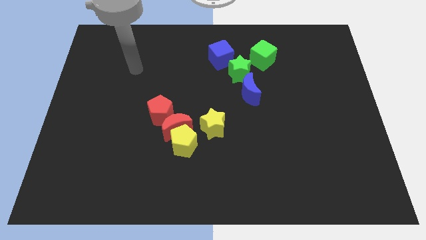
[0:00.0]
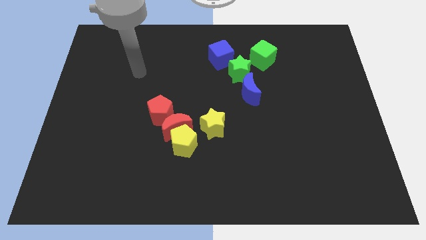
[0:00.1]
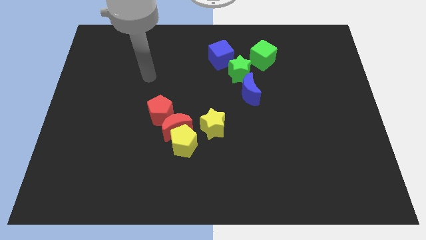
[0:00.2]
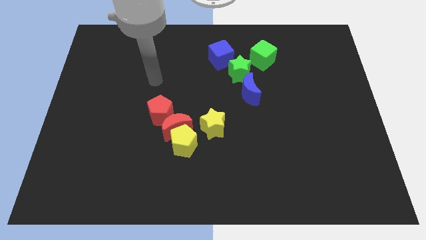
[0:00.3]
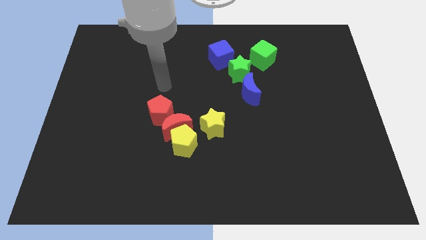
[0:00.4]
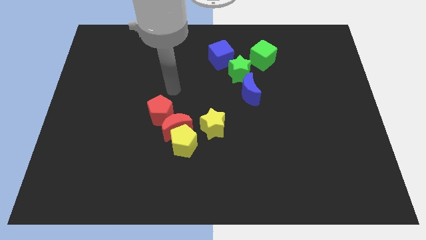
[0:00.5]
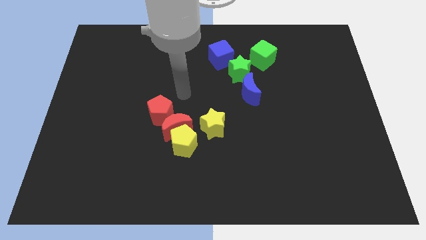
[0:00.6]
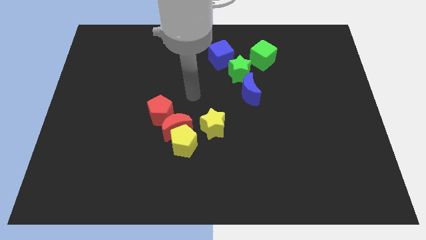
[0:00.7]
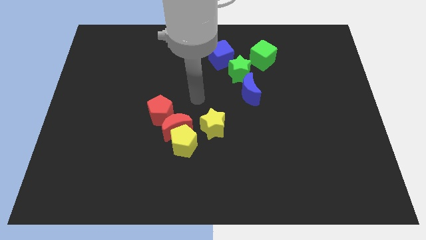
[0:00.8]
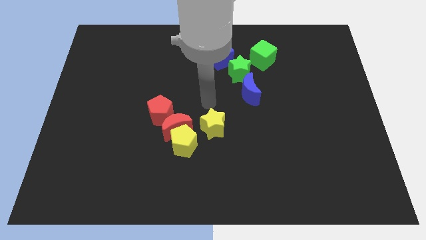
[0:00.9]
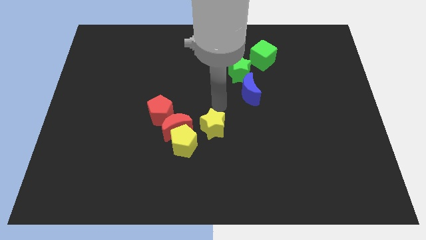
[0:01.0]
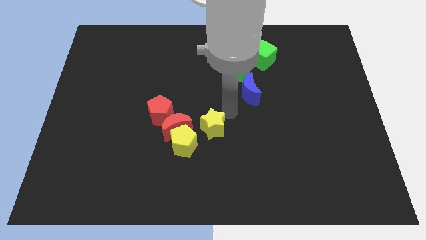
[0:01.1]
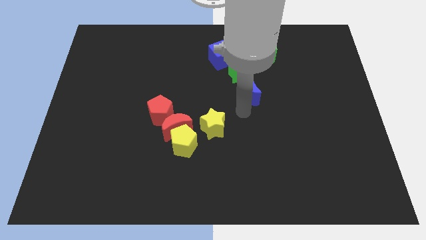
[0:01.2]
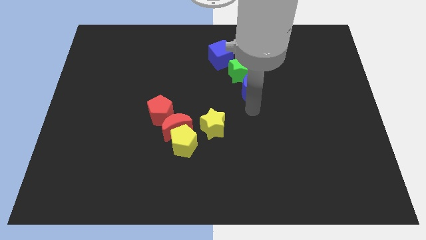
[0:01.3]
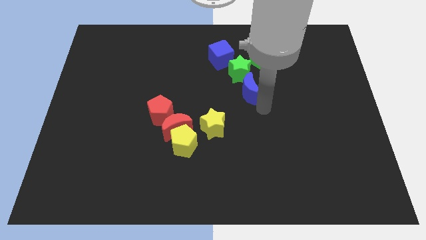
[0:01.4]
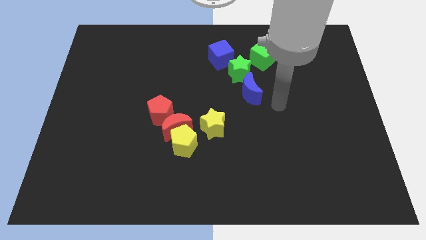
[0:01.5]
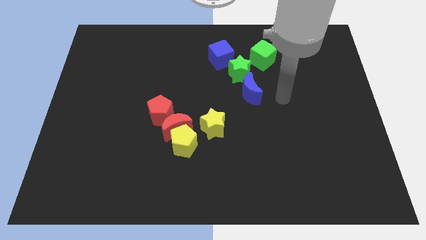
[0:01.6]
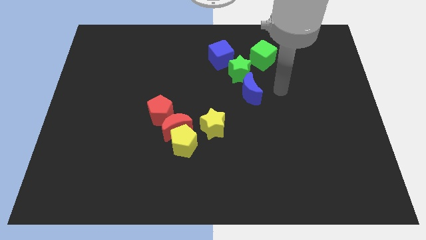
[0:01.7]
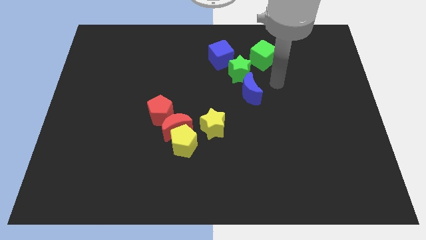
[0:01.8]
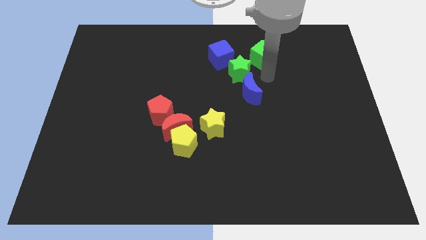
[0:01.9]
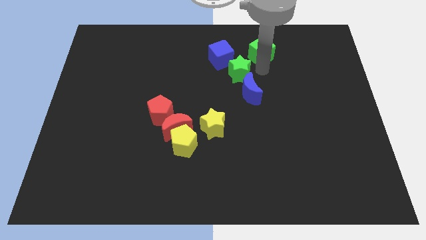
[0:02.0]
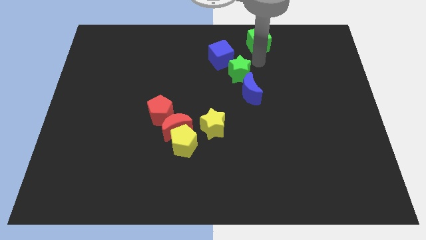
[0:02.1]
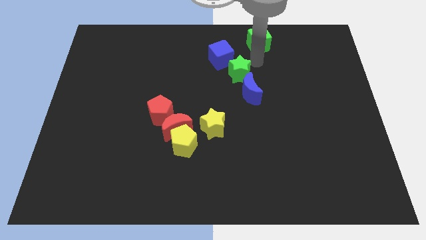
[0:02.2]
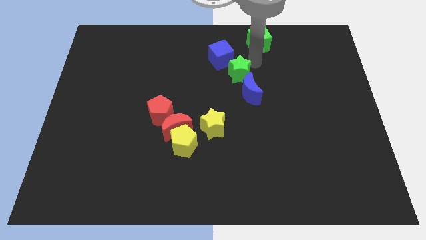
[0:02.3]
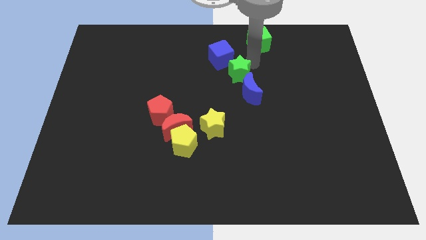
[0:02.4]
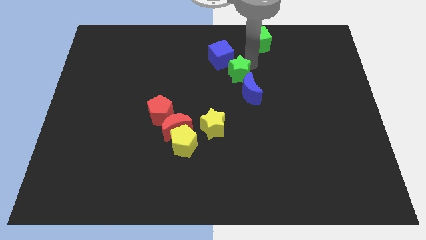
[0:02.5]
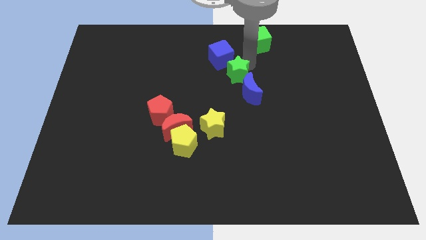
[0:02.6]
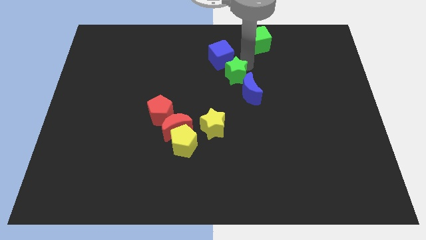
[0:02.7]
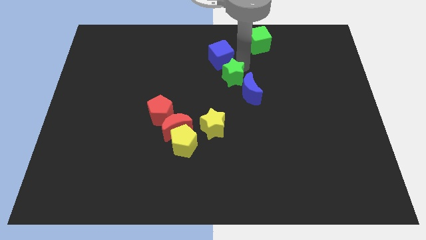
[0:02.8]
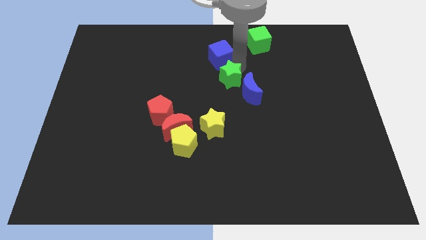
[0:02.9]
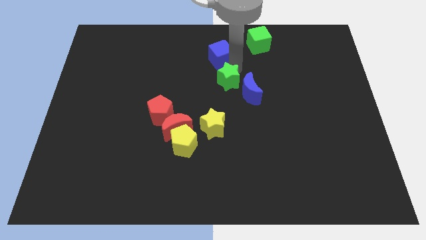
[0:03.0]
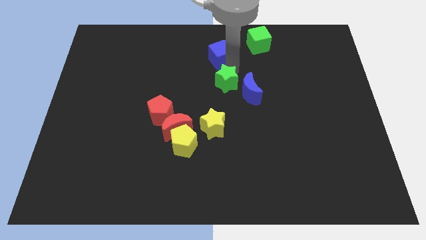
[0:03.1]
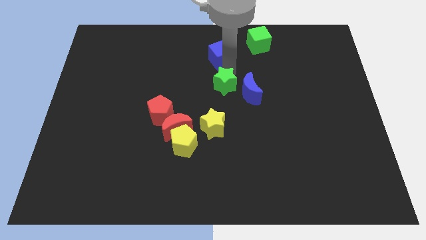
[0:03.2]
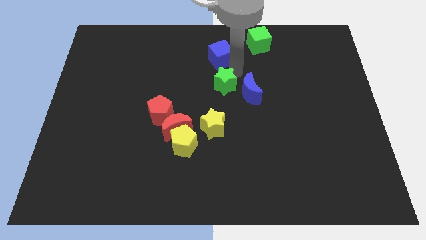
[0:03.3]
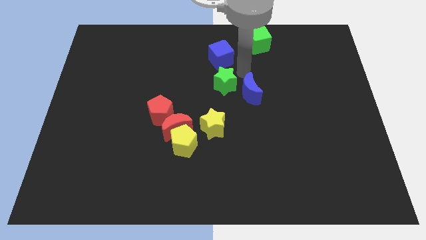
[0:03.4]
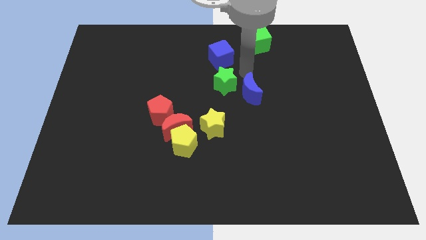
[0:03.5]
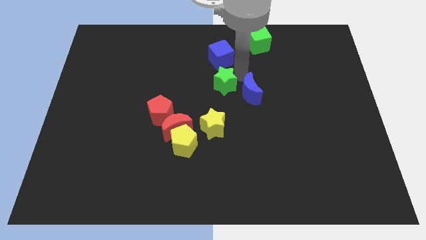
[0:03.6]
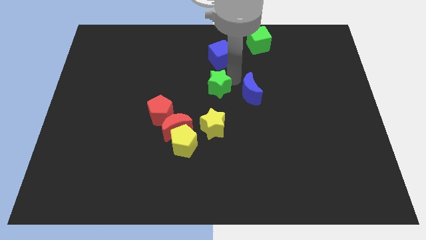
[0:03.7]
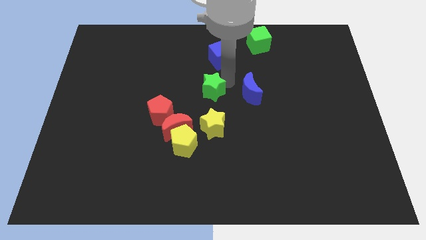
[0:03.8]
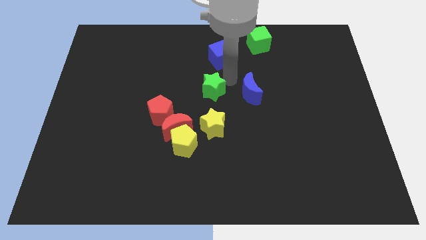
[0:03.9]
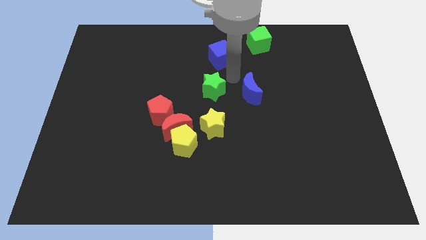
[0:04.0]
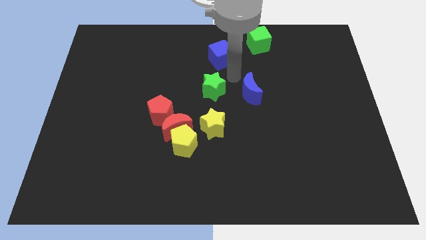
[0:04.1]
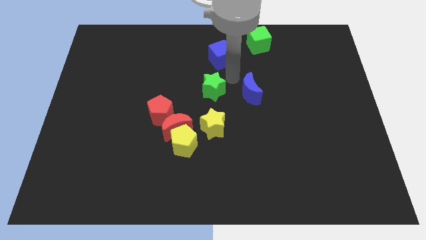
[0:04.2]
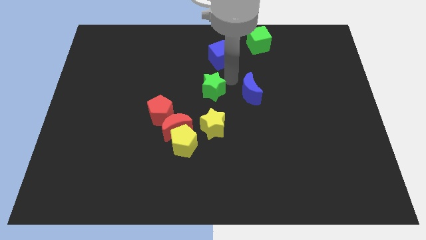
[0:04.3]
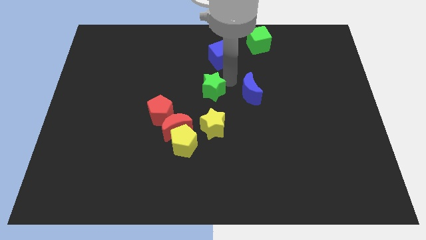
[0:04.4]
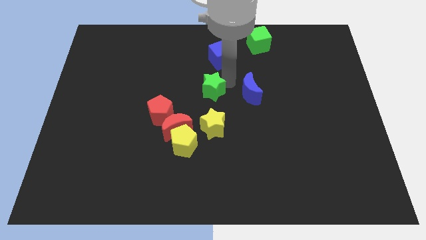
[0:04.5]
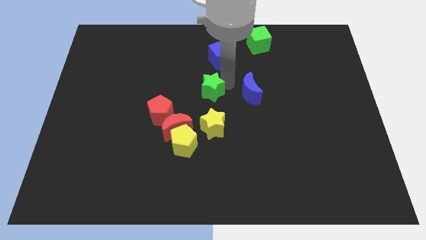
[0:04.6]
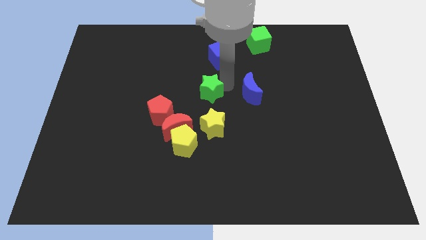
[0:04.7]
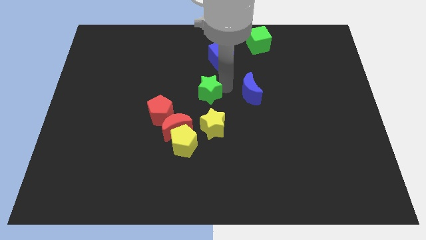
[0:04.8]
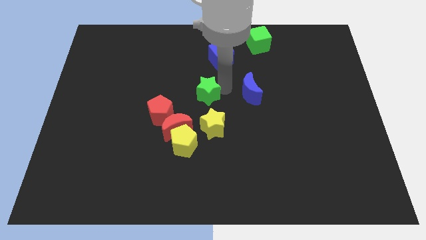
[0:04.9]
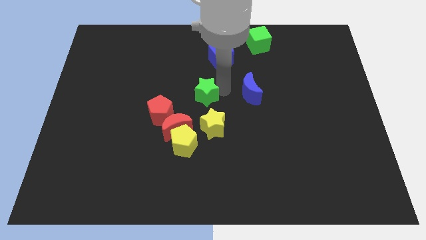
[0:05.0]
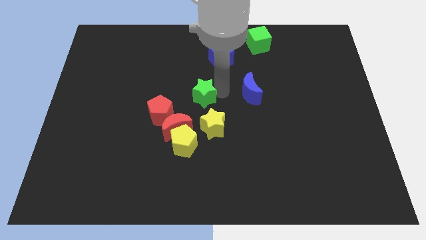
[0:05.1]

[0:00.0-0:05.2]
put the green star to the top of the yellow pentagon
